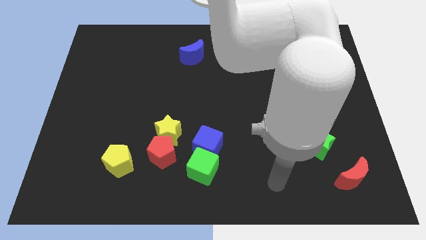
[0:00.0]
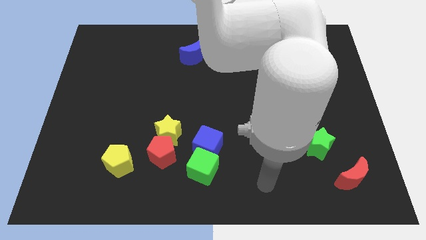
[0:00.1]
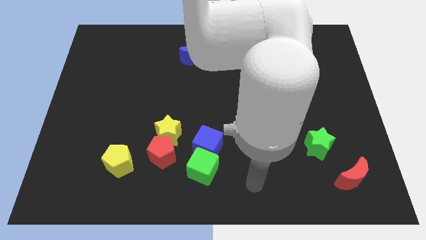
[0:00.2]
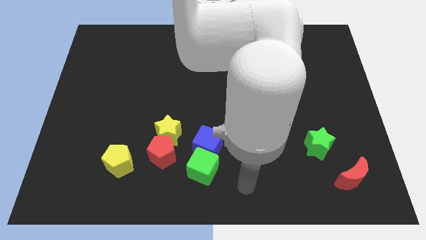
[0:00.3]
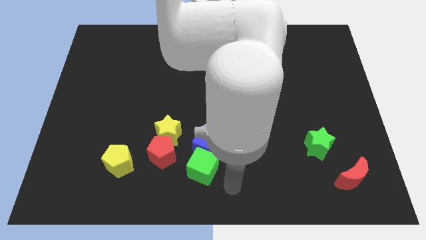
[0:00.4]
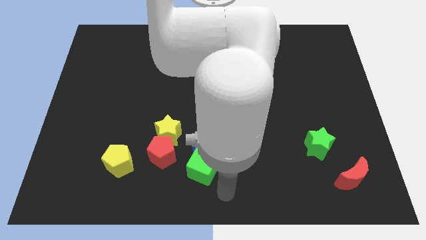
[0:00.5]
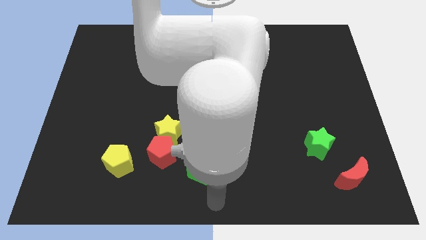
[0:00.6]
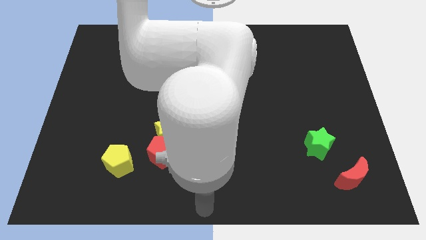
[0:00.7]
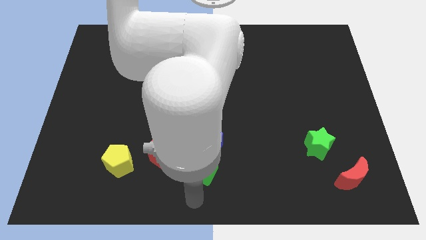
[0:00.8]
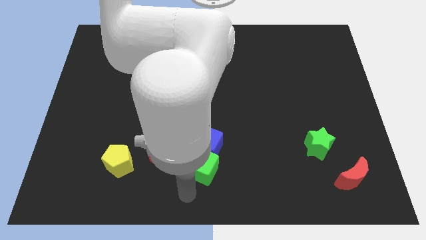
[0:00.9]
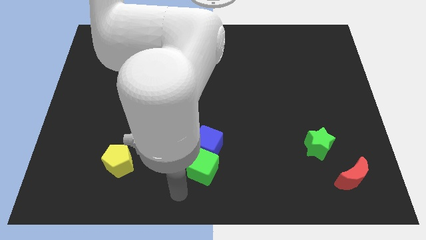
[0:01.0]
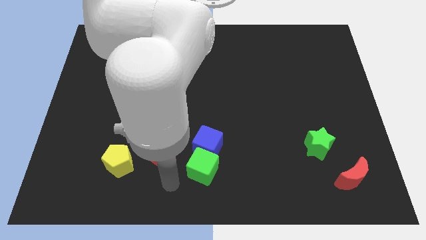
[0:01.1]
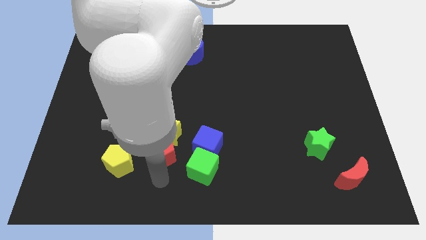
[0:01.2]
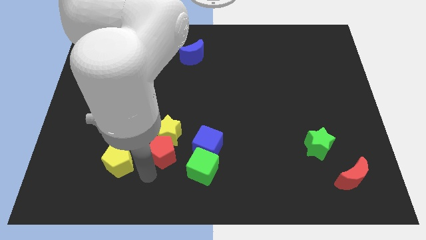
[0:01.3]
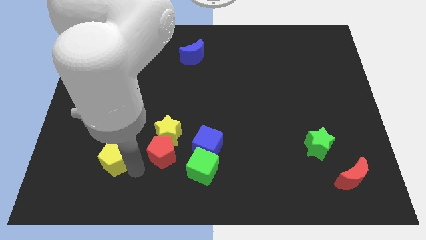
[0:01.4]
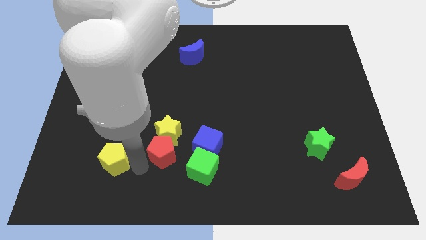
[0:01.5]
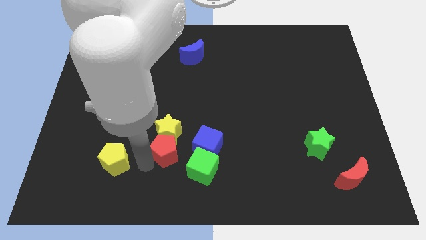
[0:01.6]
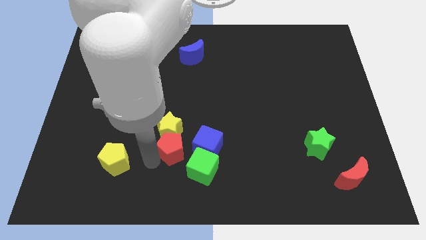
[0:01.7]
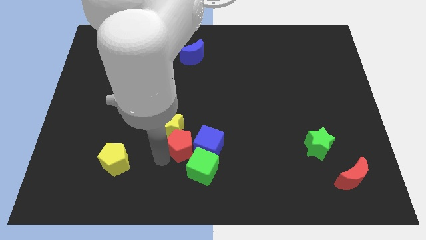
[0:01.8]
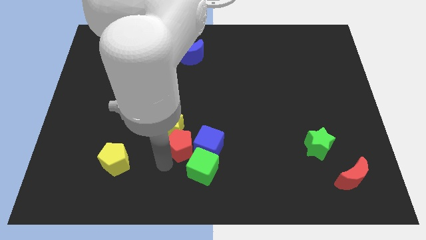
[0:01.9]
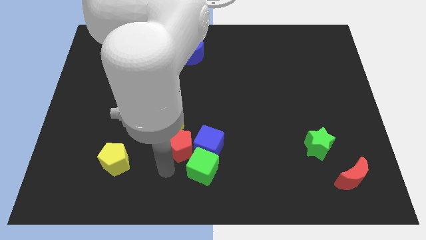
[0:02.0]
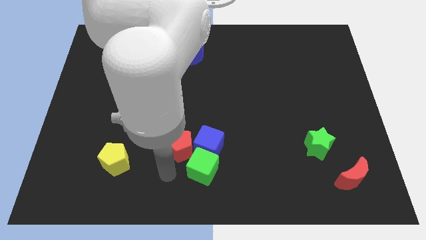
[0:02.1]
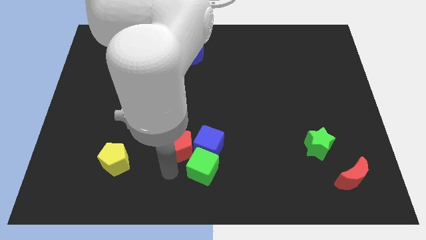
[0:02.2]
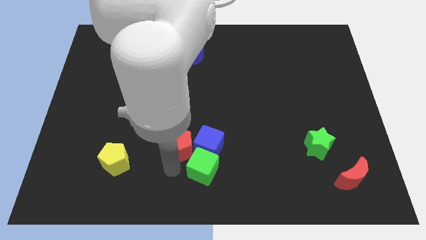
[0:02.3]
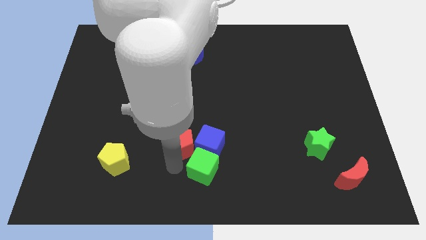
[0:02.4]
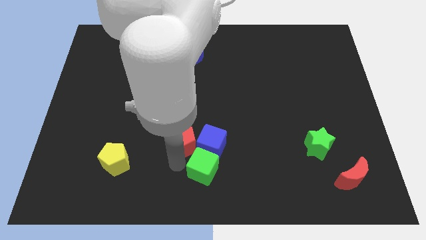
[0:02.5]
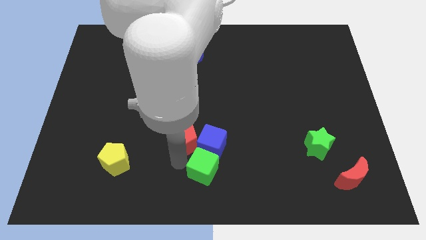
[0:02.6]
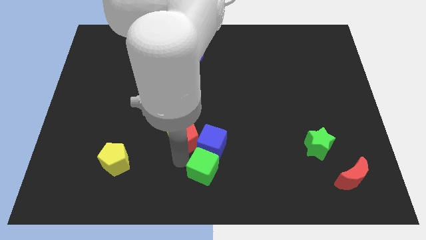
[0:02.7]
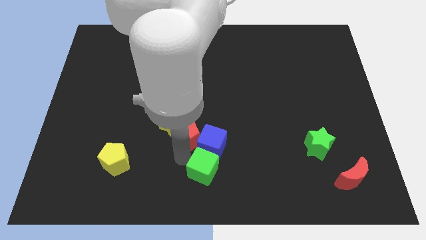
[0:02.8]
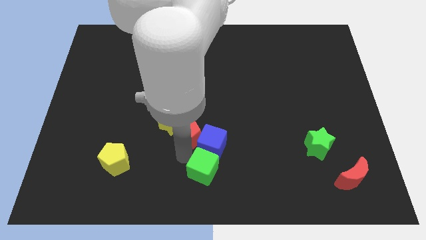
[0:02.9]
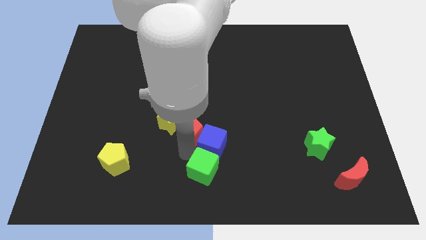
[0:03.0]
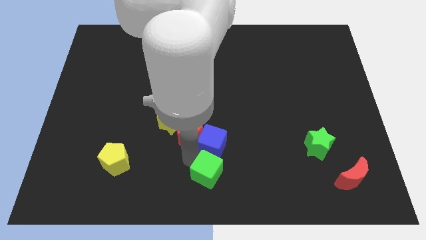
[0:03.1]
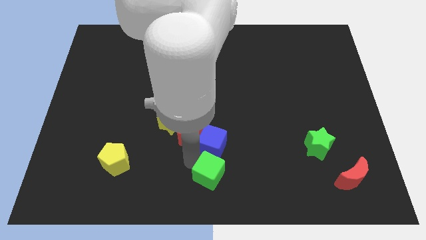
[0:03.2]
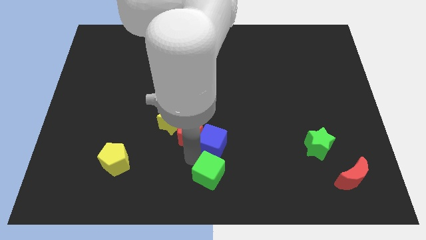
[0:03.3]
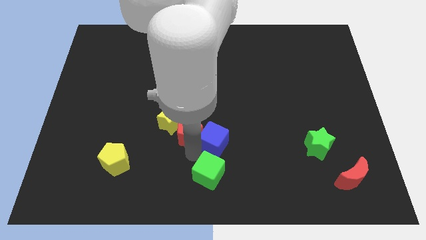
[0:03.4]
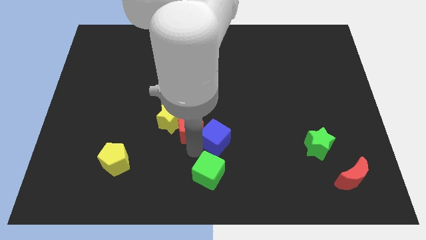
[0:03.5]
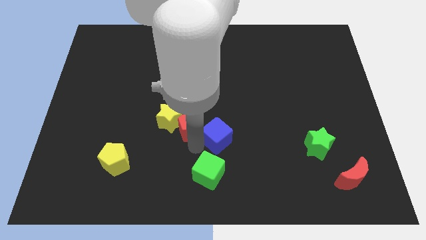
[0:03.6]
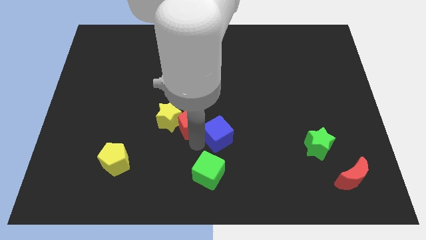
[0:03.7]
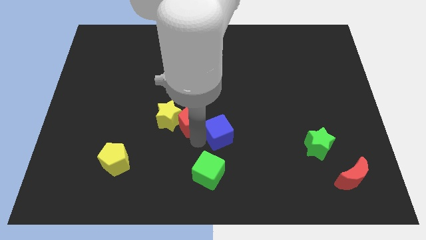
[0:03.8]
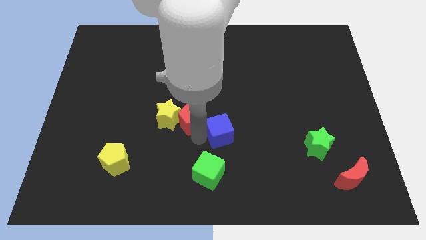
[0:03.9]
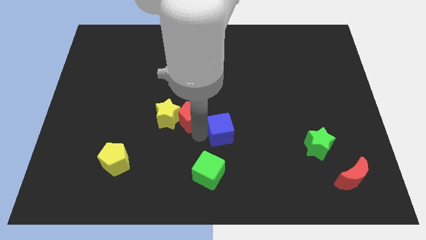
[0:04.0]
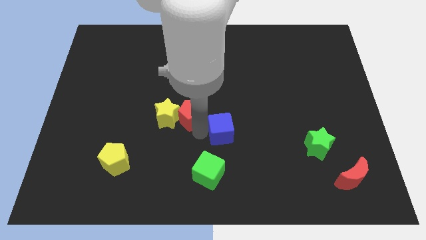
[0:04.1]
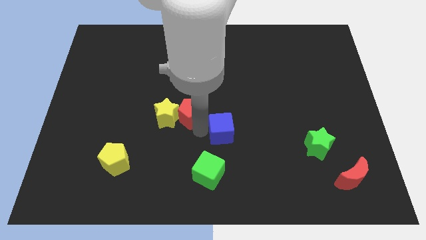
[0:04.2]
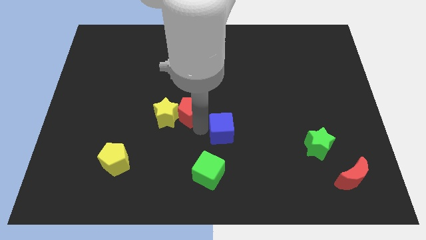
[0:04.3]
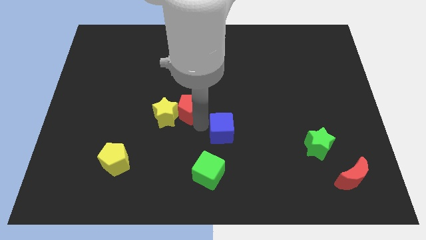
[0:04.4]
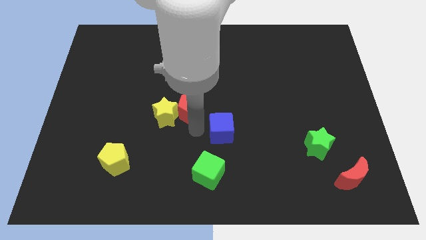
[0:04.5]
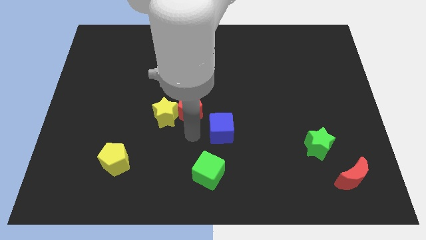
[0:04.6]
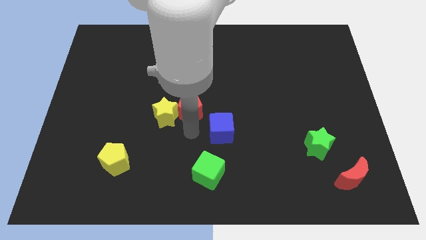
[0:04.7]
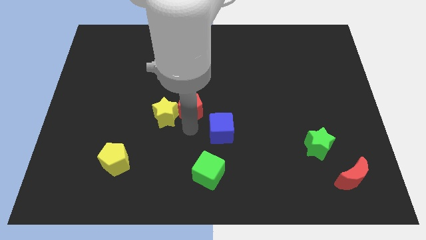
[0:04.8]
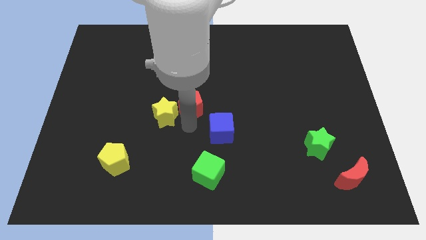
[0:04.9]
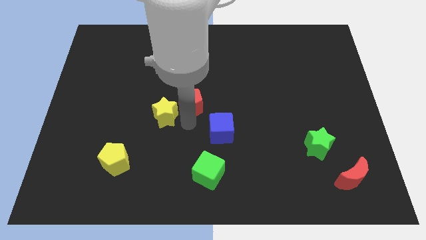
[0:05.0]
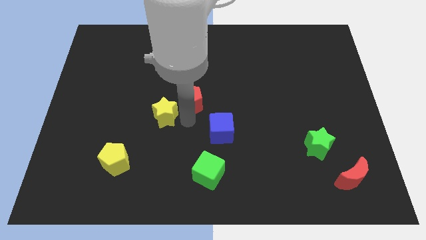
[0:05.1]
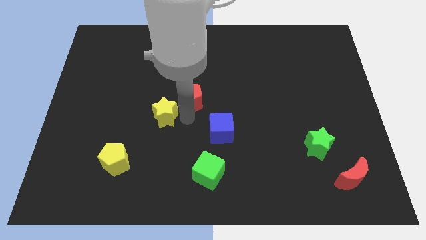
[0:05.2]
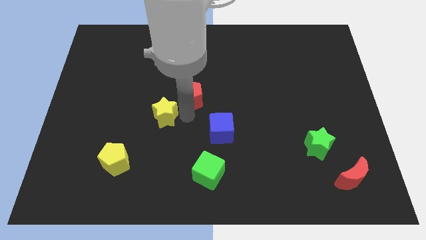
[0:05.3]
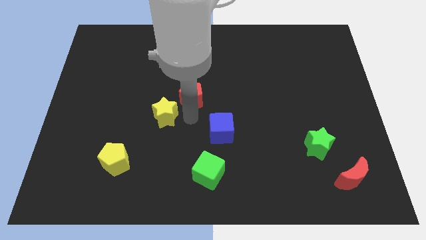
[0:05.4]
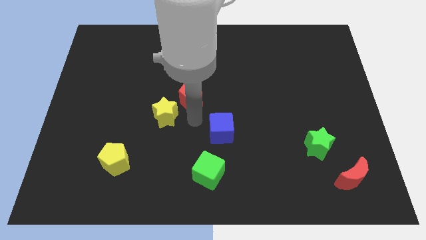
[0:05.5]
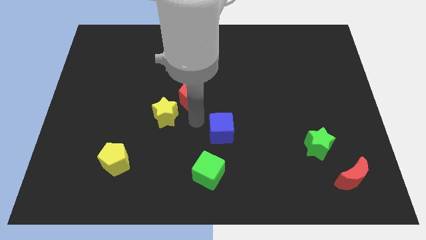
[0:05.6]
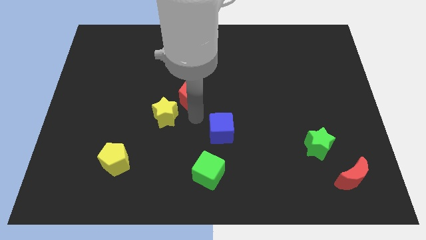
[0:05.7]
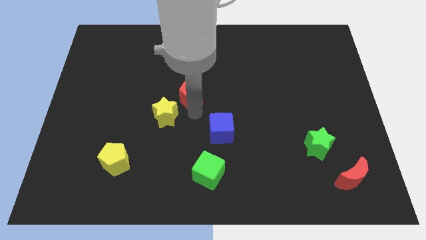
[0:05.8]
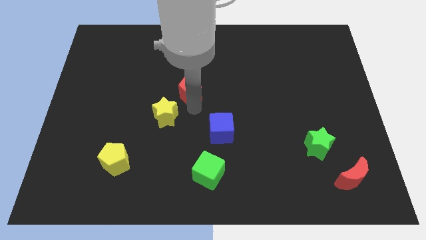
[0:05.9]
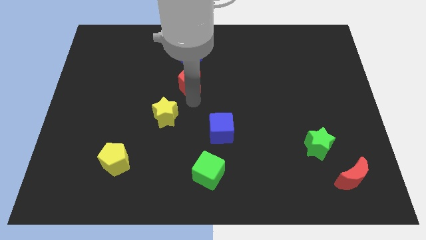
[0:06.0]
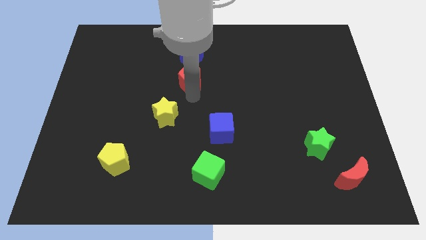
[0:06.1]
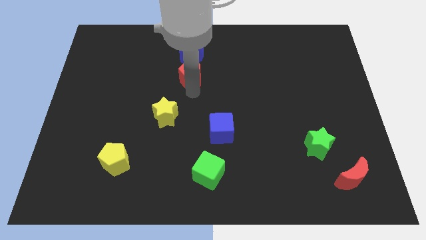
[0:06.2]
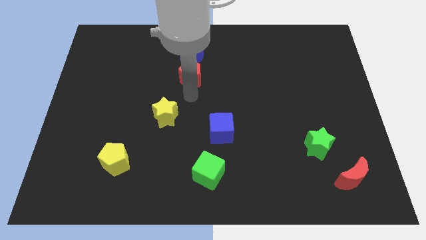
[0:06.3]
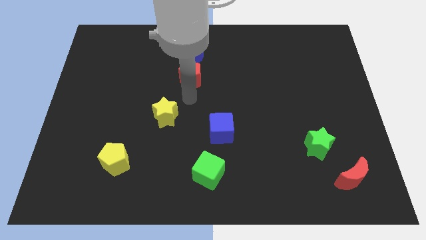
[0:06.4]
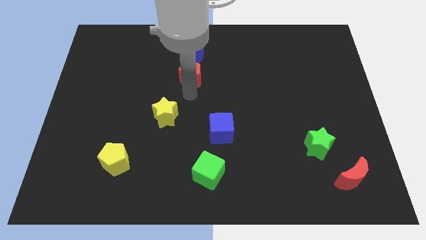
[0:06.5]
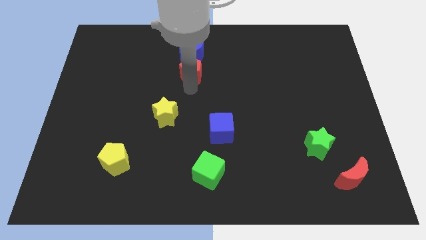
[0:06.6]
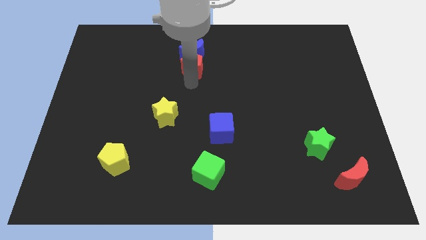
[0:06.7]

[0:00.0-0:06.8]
push the red pentagon towards the blue moon
